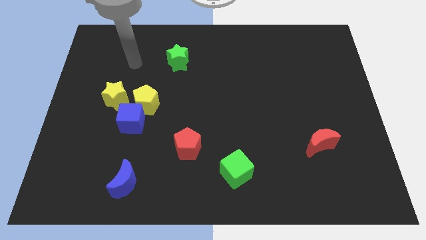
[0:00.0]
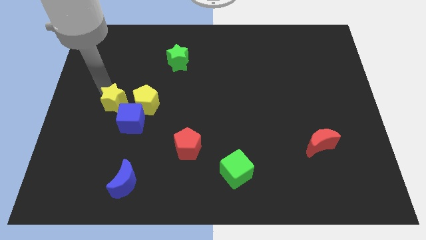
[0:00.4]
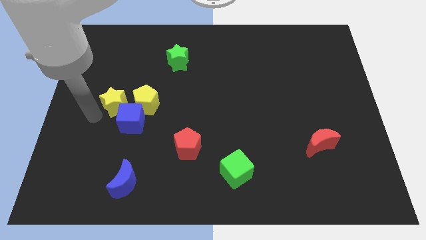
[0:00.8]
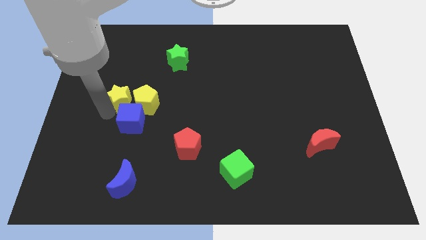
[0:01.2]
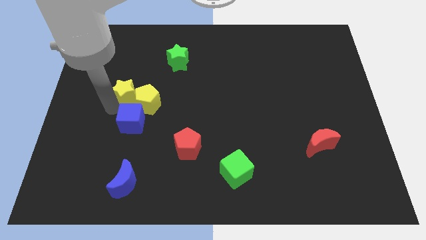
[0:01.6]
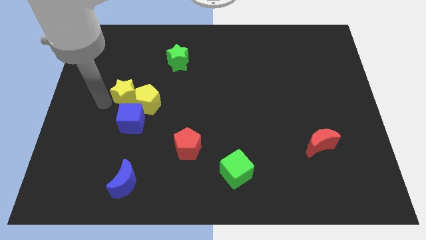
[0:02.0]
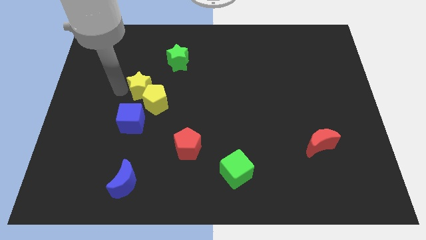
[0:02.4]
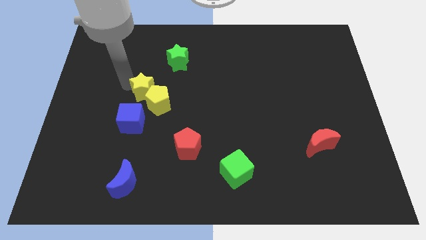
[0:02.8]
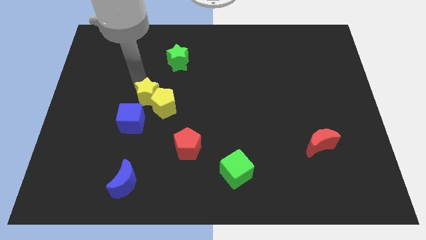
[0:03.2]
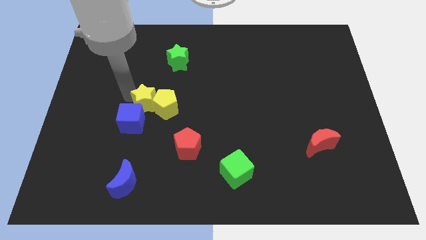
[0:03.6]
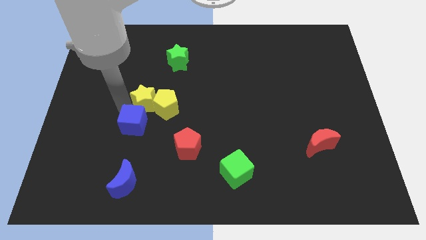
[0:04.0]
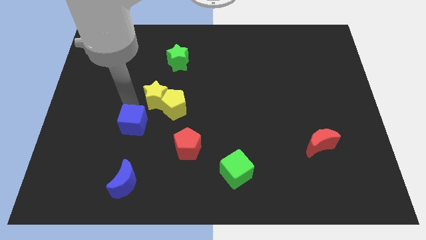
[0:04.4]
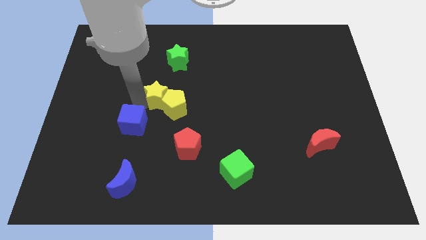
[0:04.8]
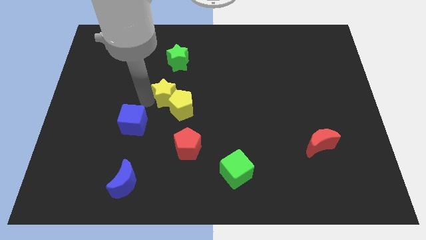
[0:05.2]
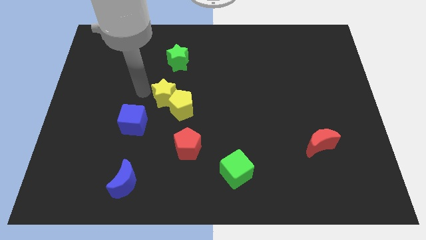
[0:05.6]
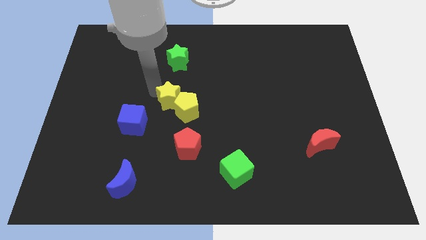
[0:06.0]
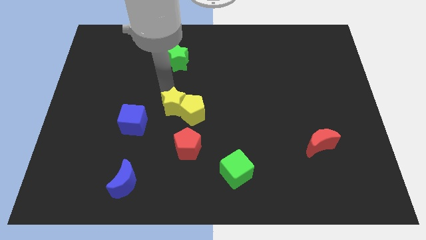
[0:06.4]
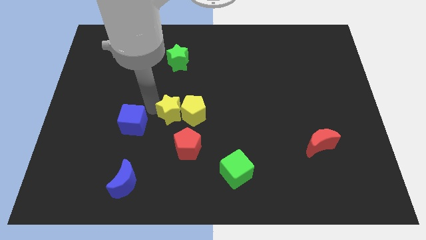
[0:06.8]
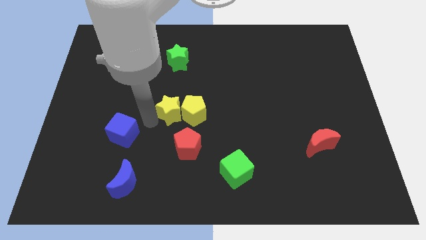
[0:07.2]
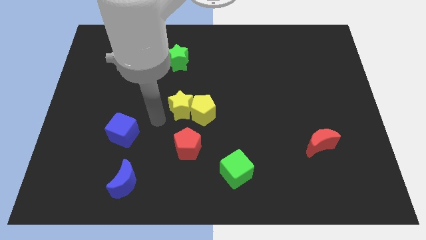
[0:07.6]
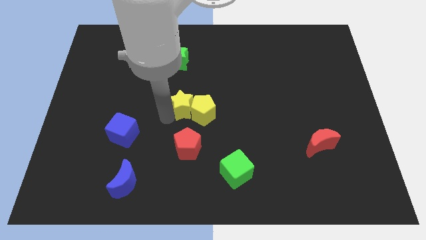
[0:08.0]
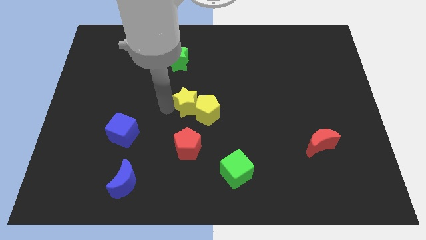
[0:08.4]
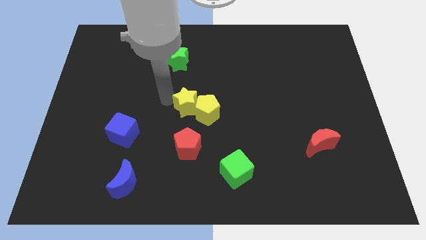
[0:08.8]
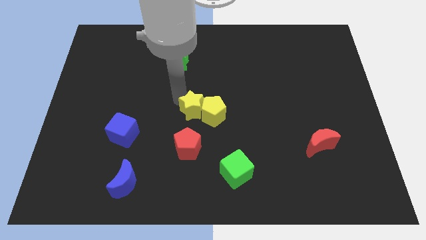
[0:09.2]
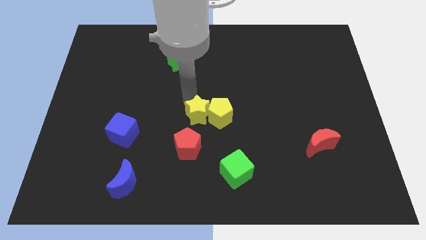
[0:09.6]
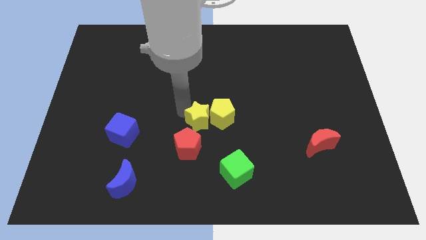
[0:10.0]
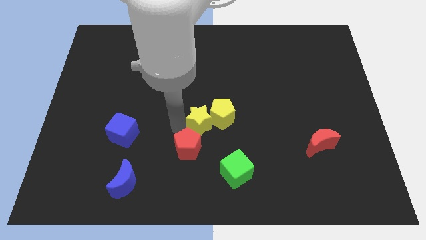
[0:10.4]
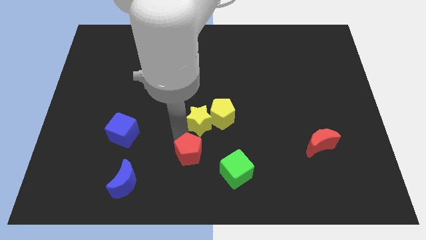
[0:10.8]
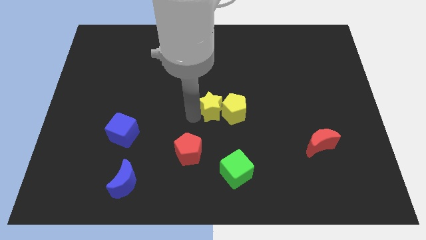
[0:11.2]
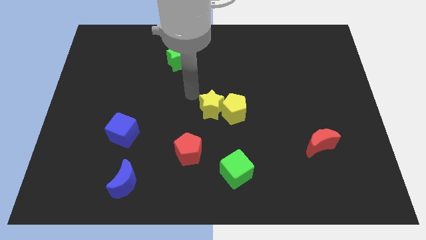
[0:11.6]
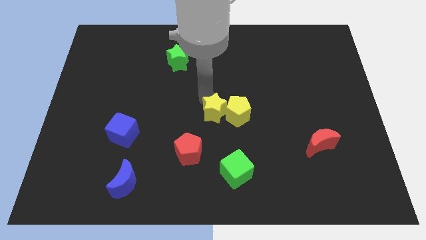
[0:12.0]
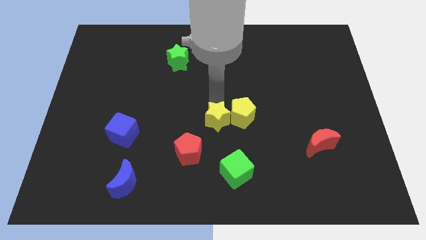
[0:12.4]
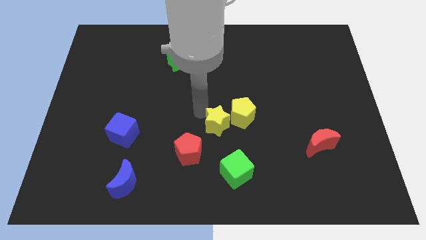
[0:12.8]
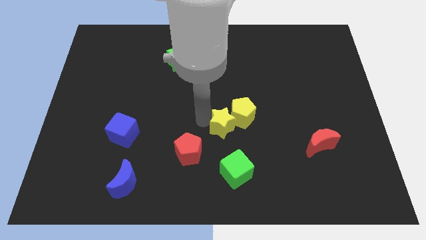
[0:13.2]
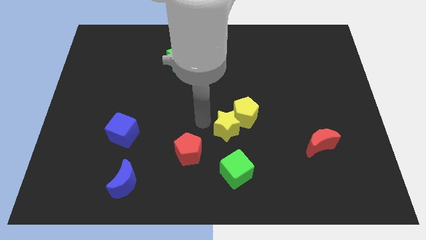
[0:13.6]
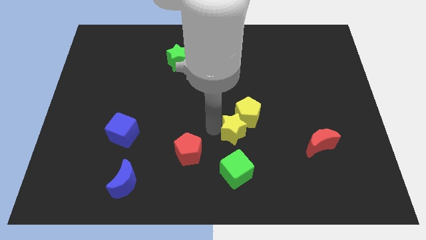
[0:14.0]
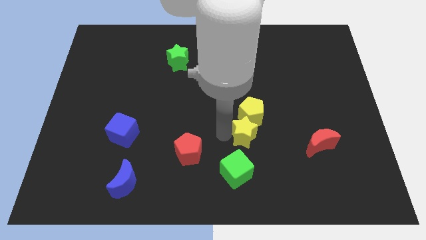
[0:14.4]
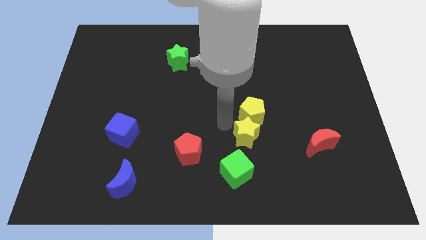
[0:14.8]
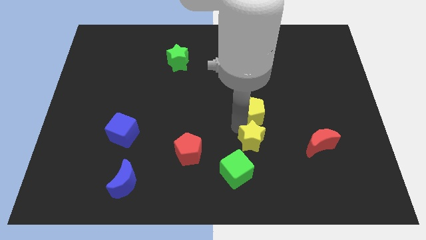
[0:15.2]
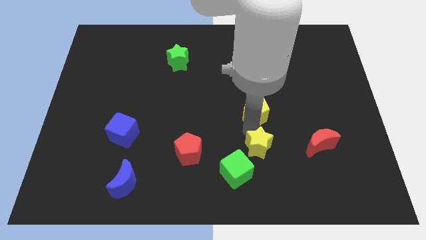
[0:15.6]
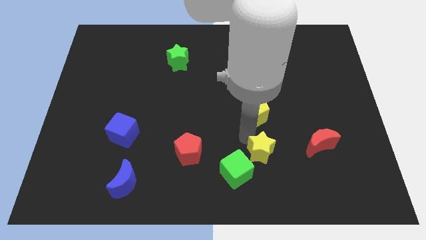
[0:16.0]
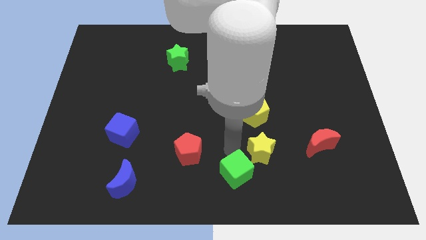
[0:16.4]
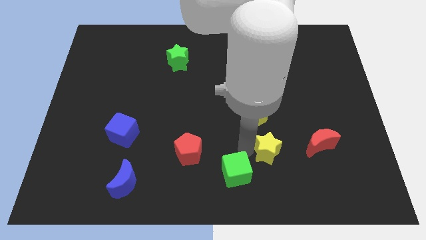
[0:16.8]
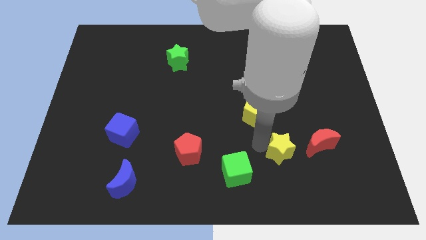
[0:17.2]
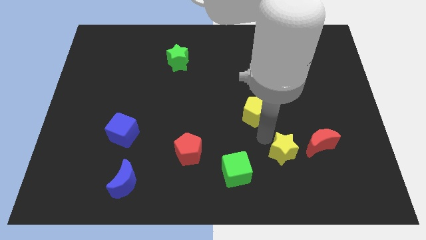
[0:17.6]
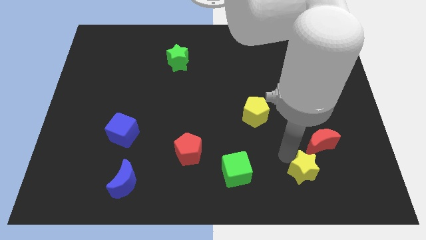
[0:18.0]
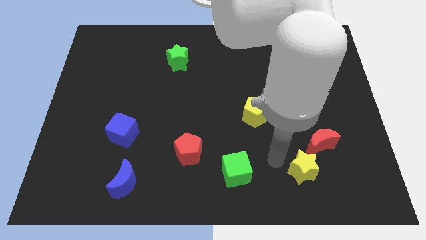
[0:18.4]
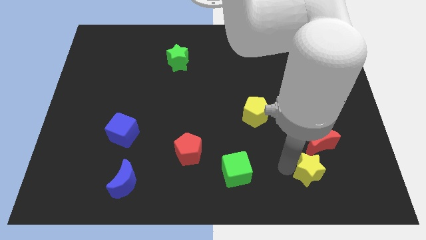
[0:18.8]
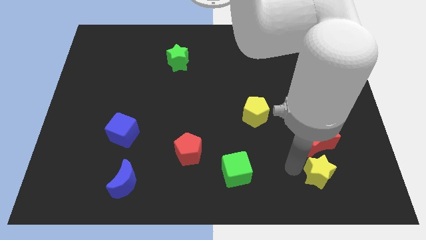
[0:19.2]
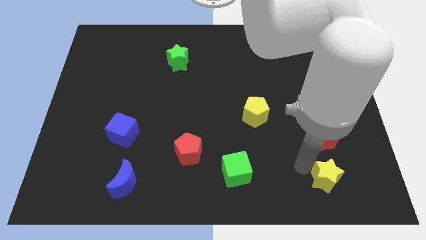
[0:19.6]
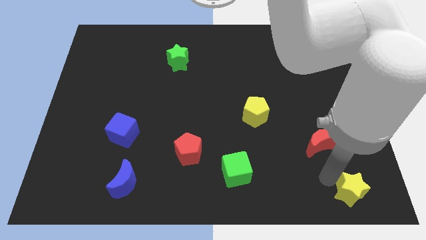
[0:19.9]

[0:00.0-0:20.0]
put the yellow star to the lower right corner

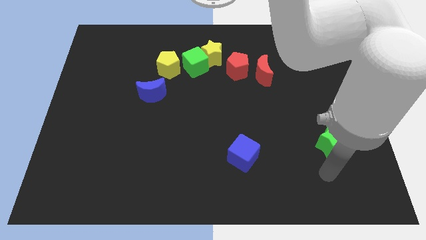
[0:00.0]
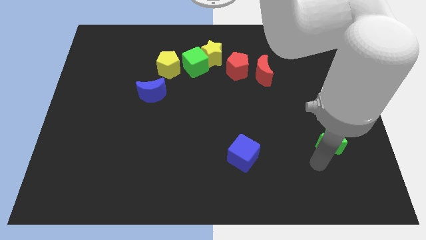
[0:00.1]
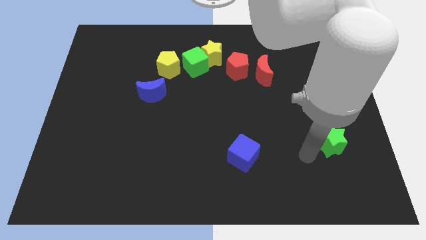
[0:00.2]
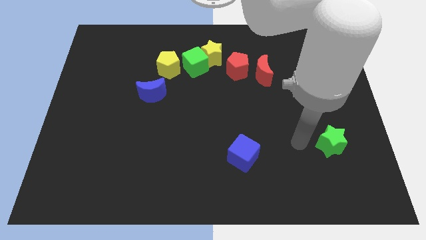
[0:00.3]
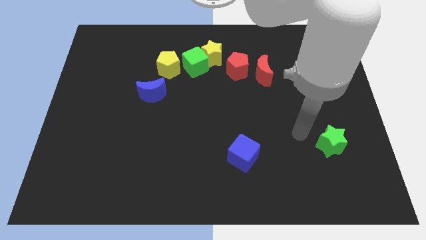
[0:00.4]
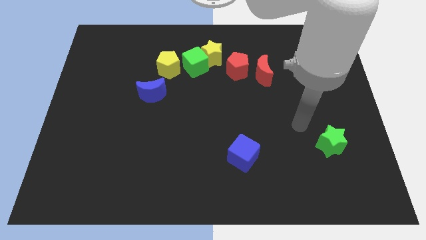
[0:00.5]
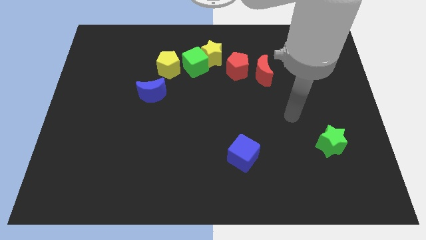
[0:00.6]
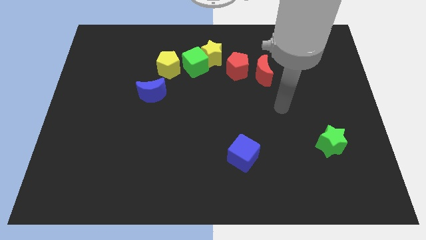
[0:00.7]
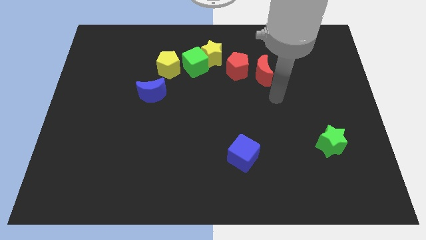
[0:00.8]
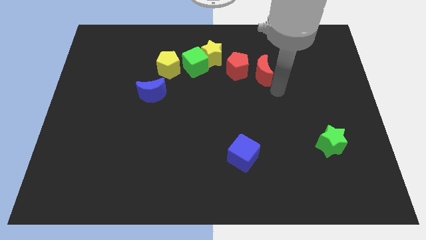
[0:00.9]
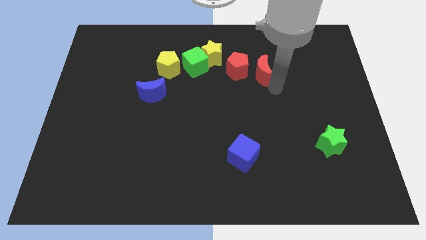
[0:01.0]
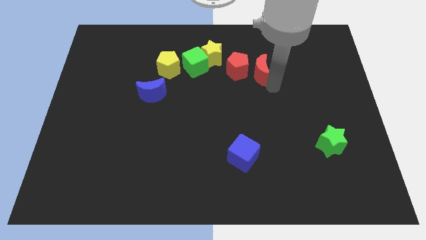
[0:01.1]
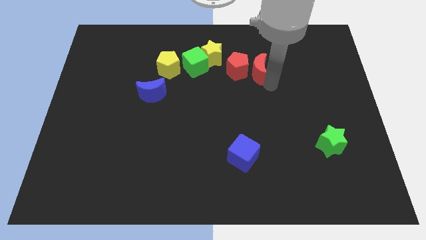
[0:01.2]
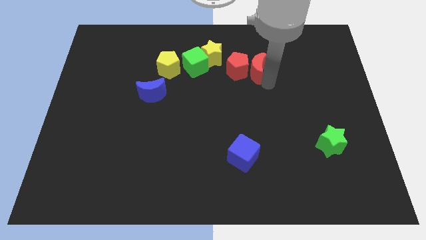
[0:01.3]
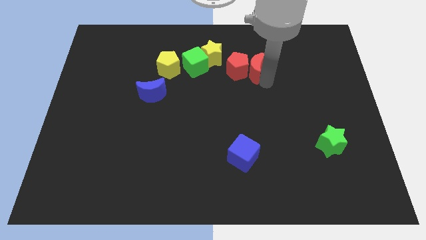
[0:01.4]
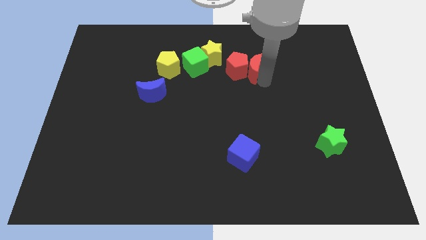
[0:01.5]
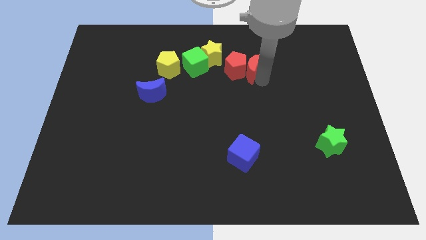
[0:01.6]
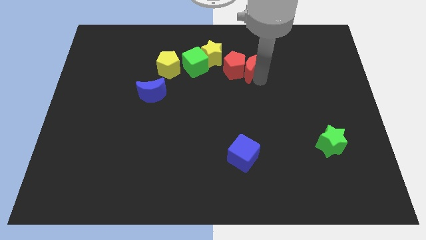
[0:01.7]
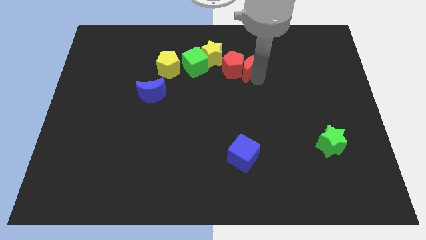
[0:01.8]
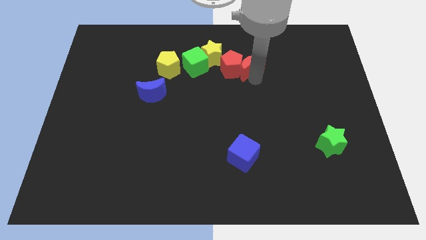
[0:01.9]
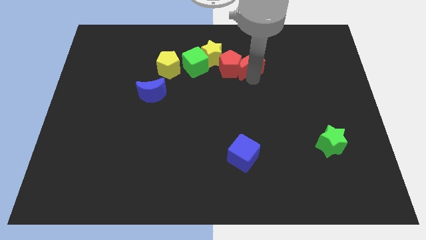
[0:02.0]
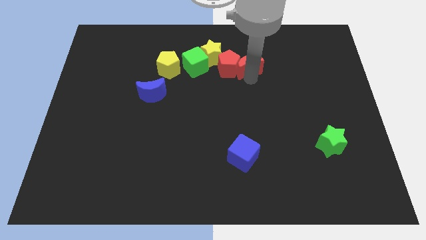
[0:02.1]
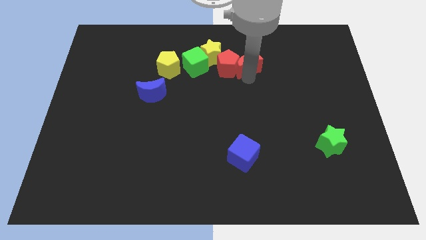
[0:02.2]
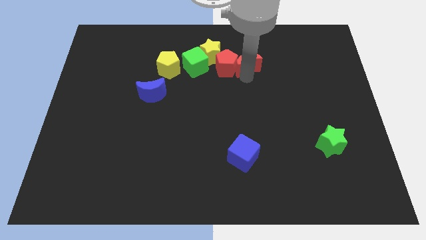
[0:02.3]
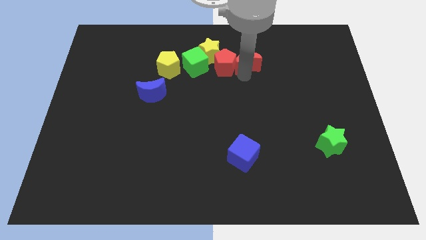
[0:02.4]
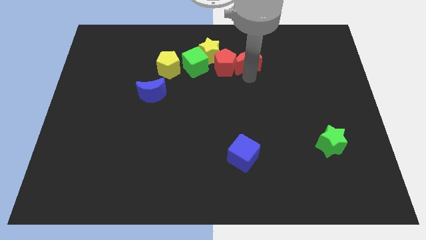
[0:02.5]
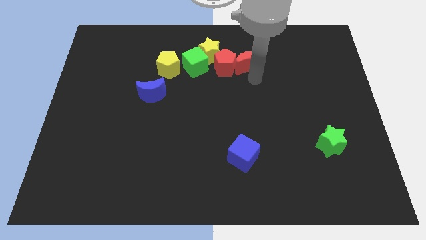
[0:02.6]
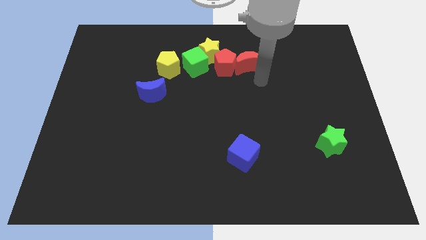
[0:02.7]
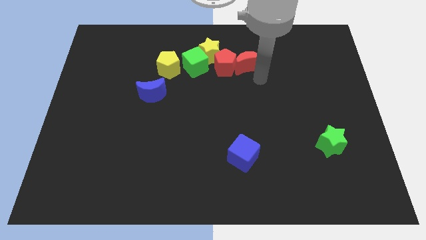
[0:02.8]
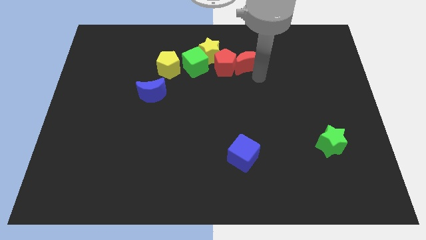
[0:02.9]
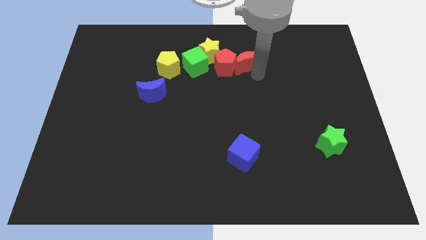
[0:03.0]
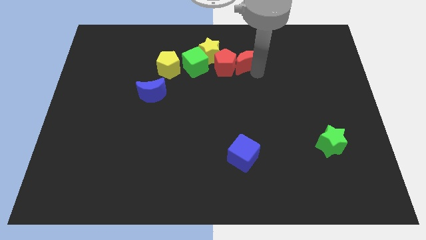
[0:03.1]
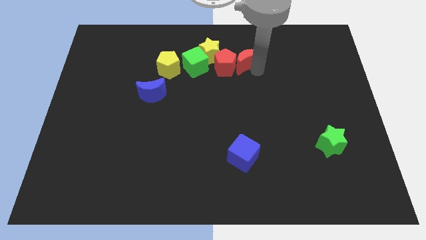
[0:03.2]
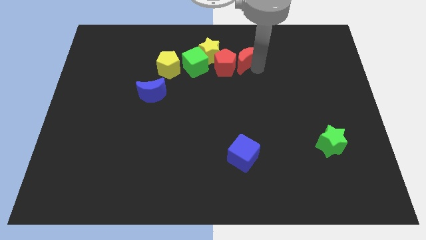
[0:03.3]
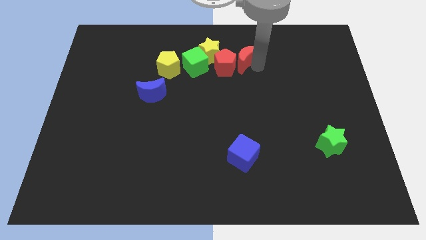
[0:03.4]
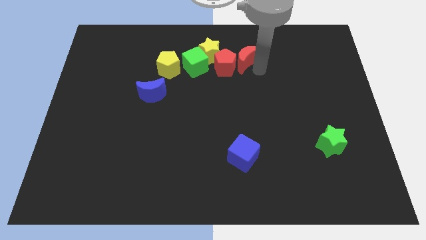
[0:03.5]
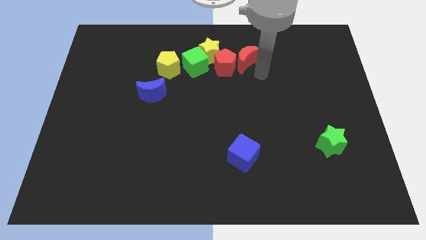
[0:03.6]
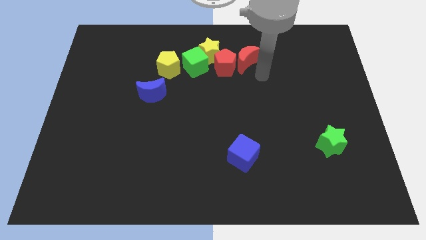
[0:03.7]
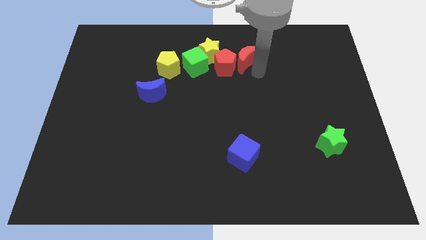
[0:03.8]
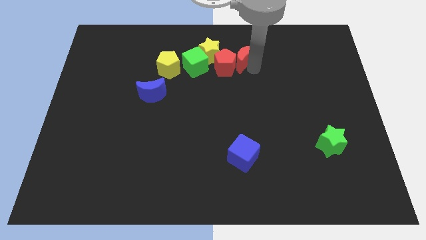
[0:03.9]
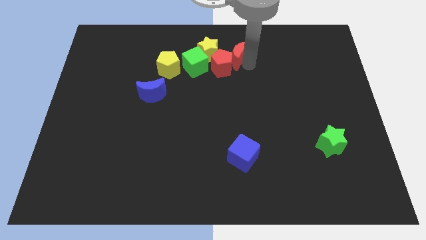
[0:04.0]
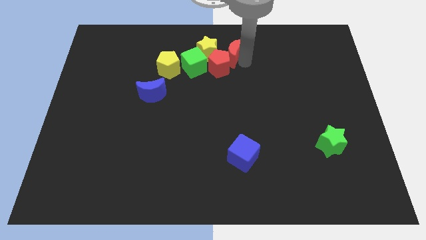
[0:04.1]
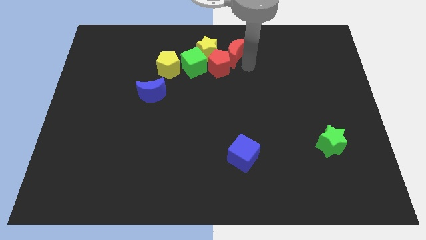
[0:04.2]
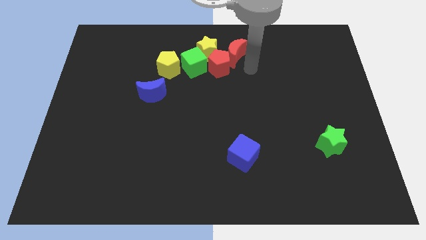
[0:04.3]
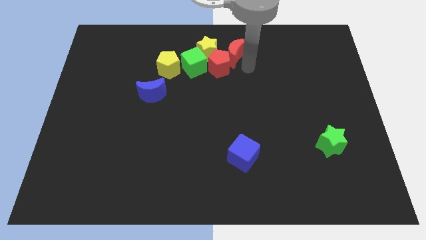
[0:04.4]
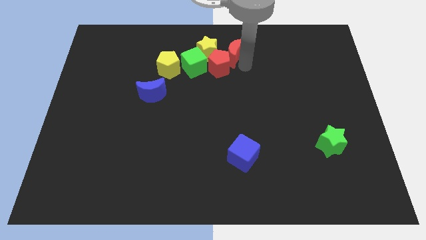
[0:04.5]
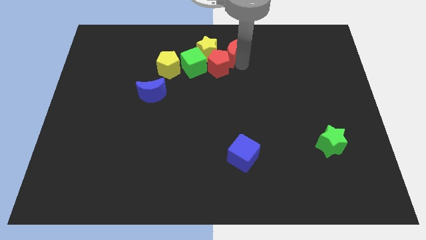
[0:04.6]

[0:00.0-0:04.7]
slide the red moon to the top
